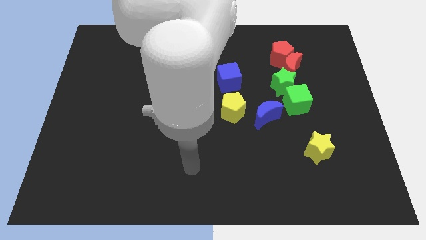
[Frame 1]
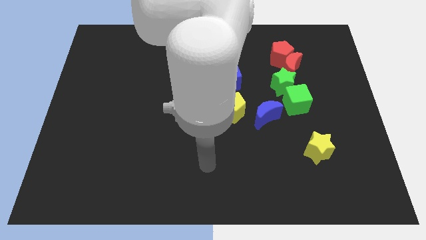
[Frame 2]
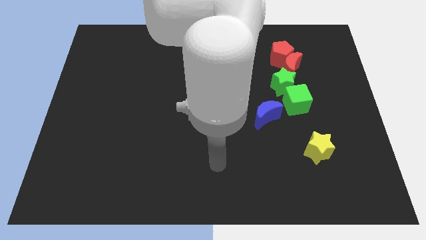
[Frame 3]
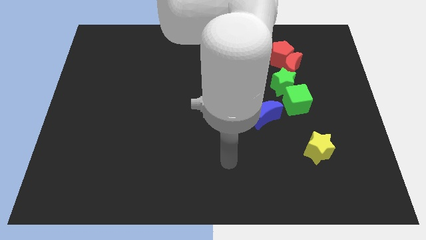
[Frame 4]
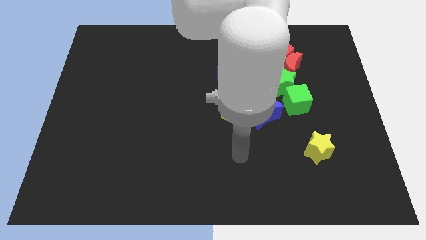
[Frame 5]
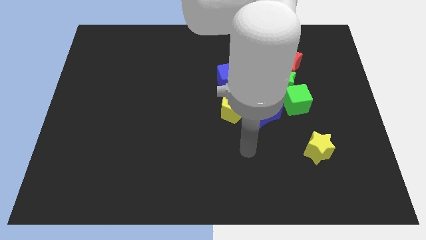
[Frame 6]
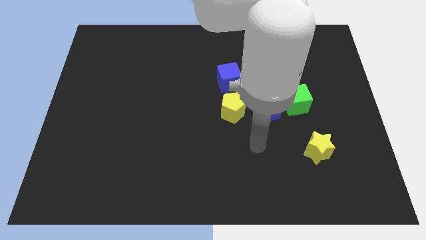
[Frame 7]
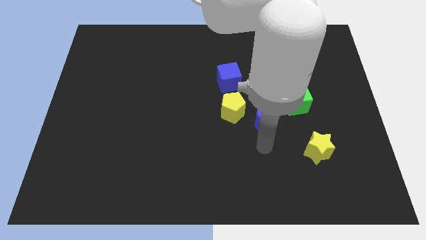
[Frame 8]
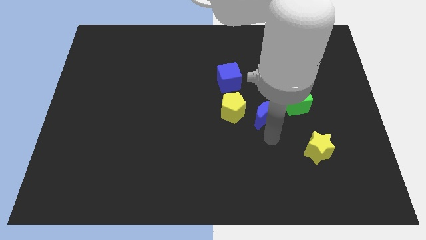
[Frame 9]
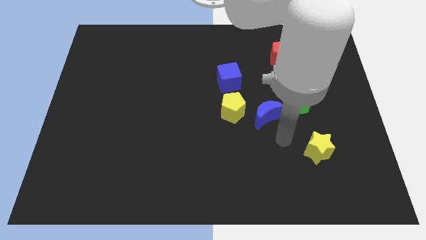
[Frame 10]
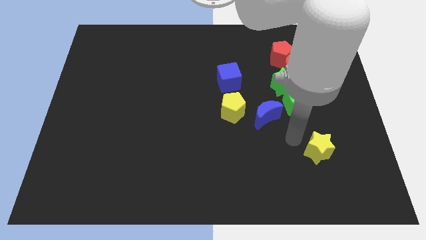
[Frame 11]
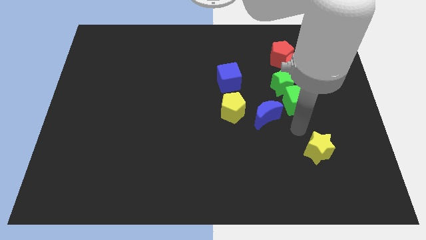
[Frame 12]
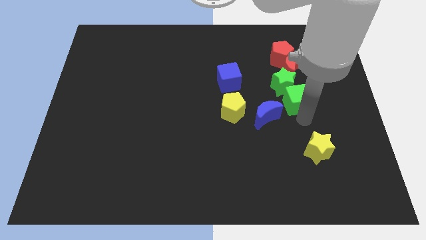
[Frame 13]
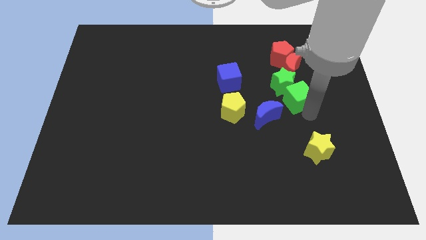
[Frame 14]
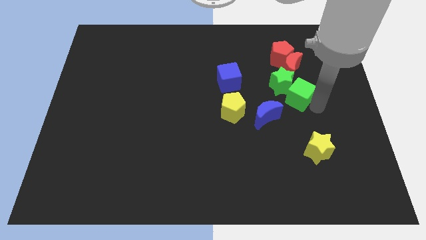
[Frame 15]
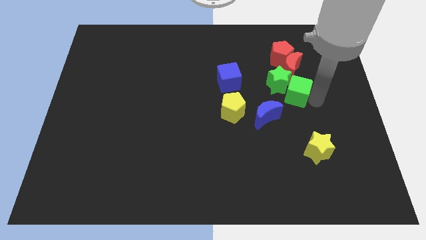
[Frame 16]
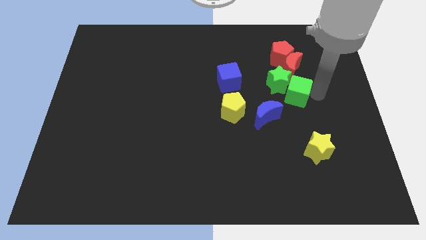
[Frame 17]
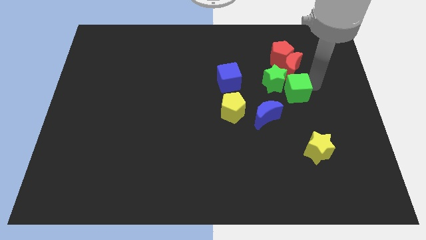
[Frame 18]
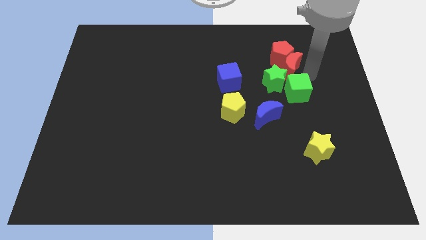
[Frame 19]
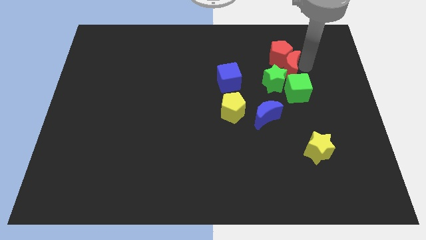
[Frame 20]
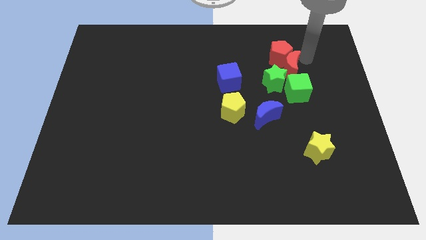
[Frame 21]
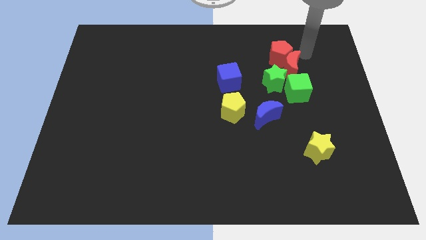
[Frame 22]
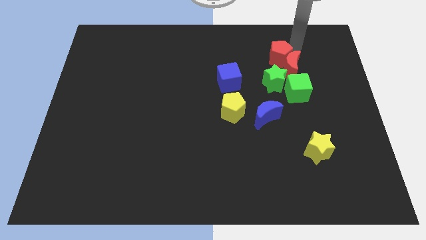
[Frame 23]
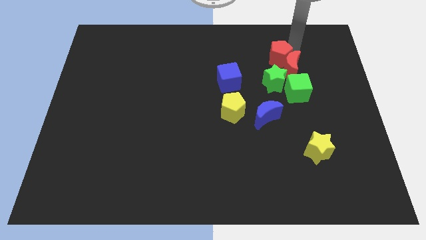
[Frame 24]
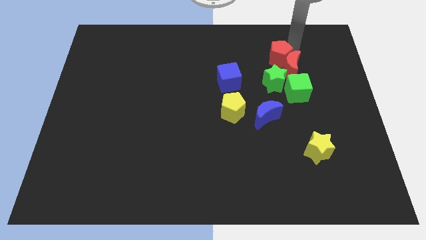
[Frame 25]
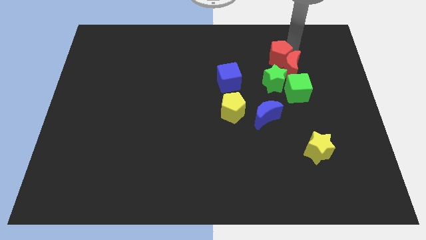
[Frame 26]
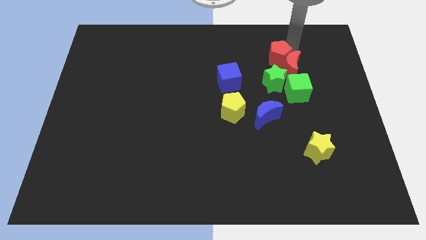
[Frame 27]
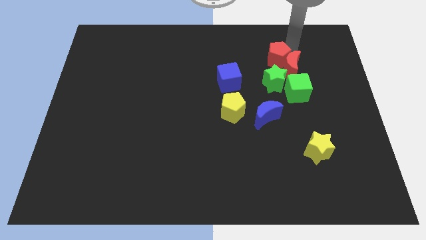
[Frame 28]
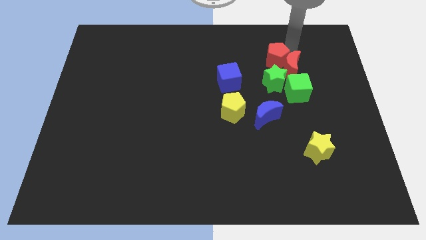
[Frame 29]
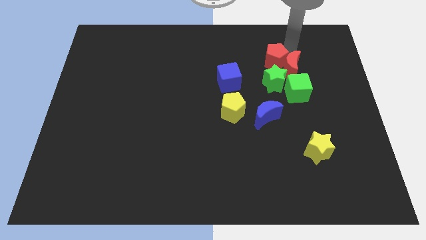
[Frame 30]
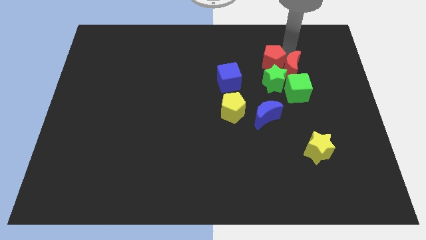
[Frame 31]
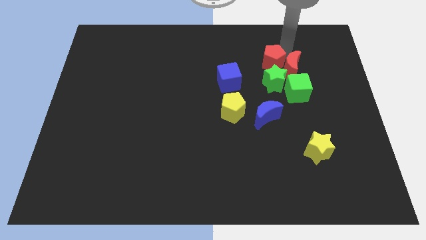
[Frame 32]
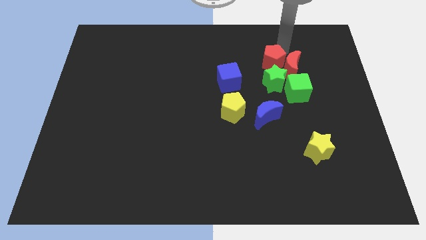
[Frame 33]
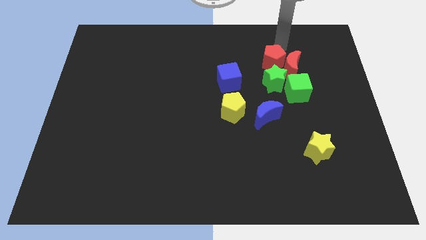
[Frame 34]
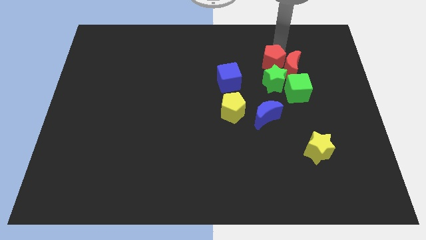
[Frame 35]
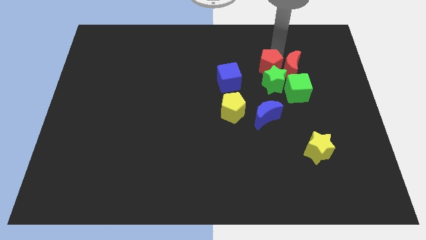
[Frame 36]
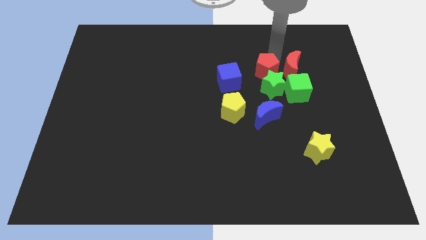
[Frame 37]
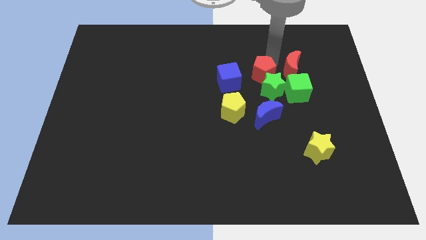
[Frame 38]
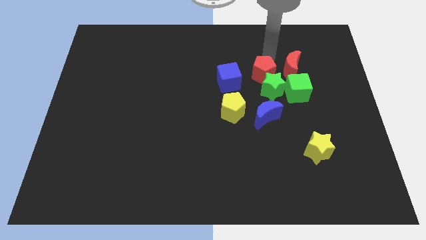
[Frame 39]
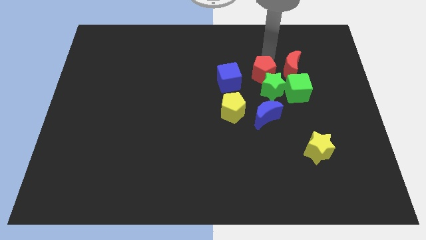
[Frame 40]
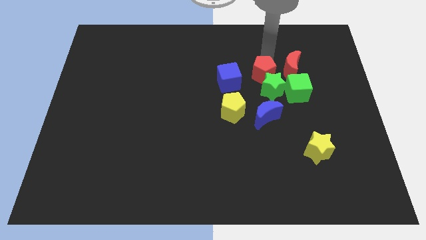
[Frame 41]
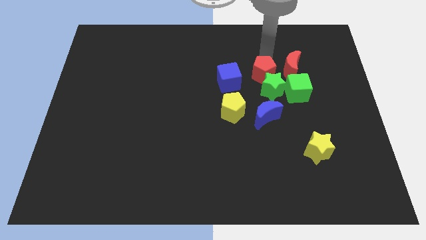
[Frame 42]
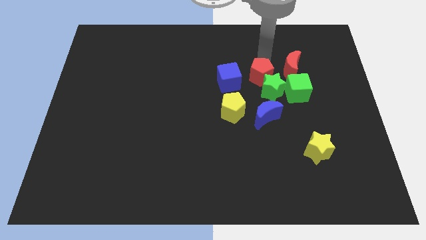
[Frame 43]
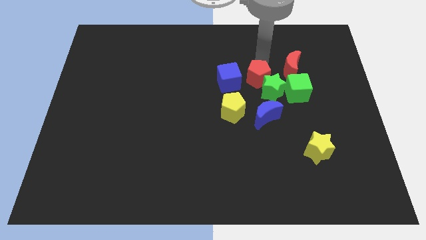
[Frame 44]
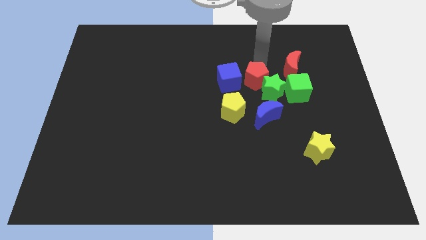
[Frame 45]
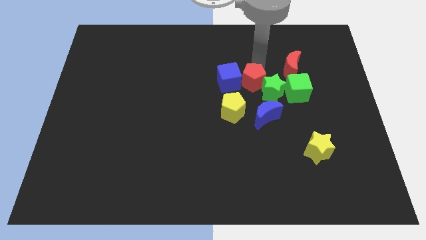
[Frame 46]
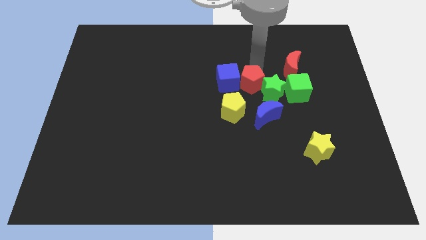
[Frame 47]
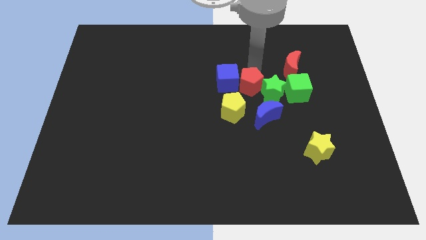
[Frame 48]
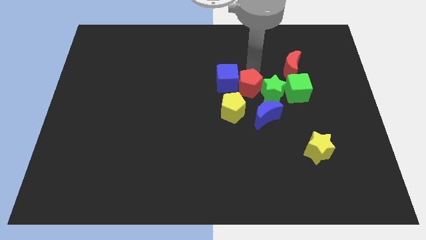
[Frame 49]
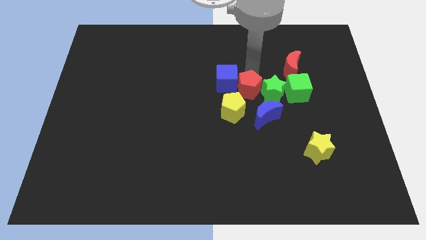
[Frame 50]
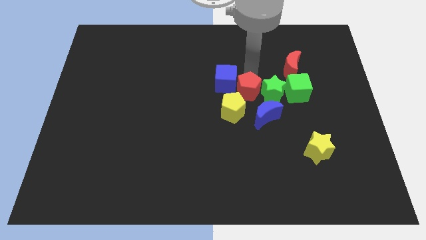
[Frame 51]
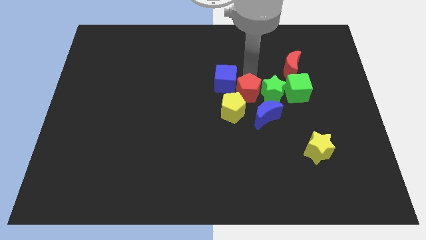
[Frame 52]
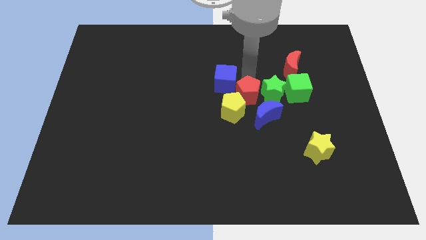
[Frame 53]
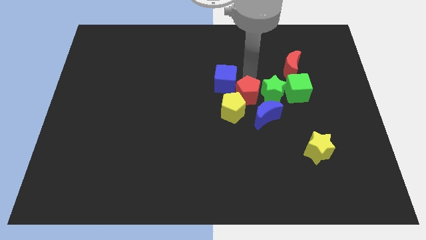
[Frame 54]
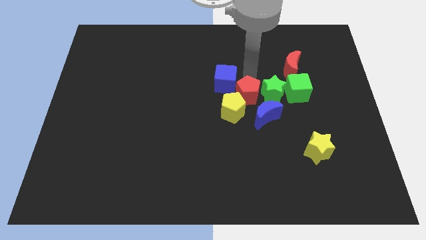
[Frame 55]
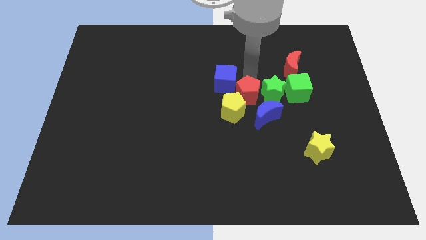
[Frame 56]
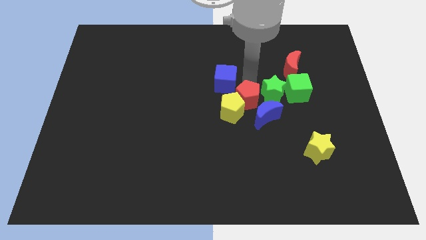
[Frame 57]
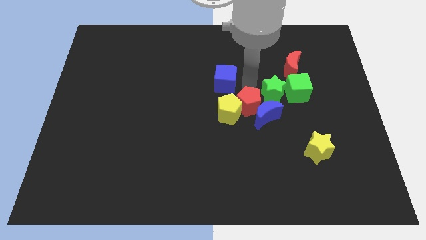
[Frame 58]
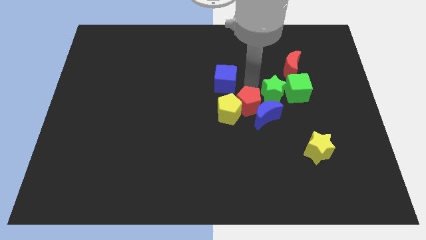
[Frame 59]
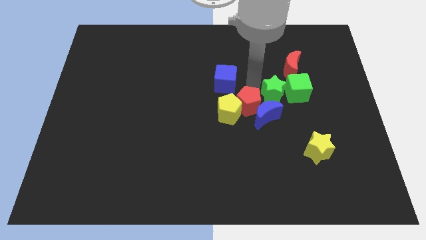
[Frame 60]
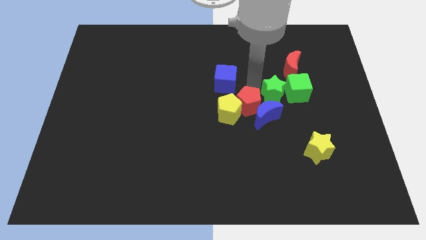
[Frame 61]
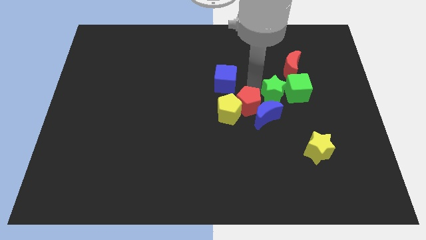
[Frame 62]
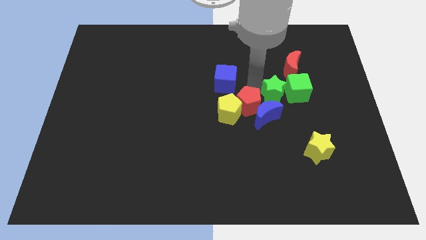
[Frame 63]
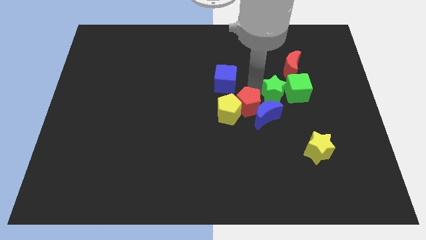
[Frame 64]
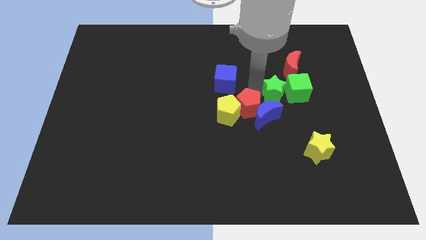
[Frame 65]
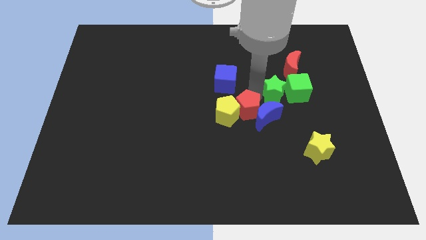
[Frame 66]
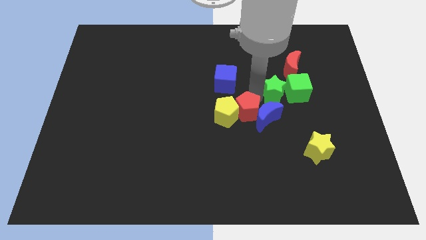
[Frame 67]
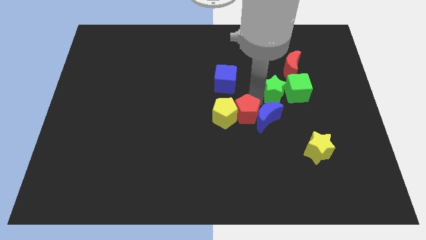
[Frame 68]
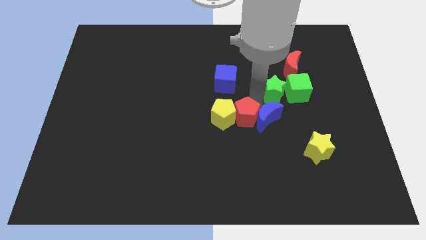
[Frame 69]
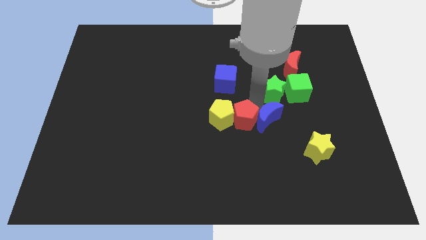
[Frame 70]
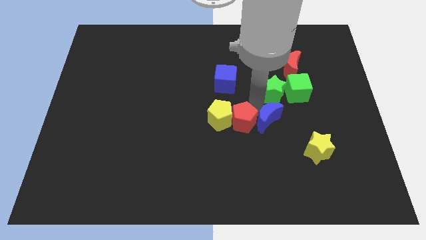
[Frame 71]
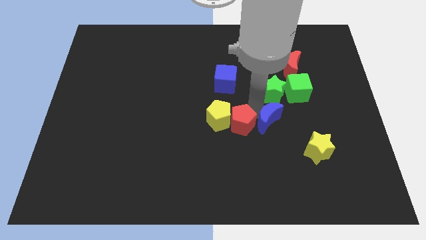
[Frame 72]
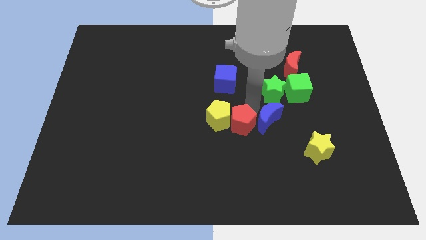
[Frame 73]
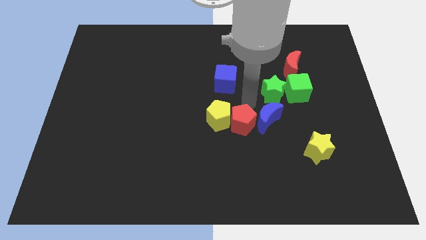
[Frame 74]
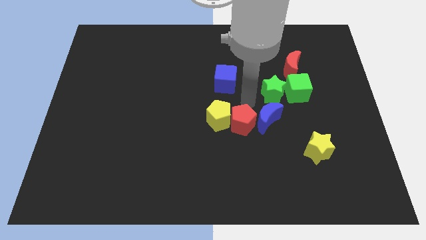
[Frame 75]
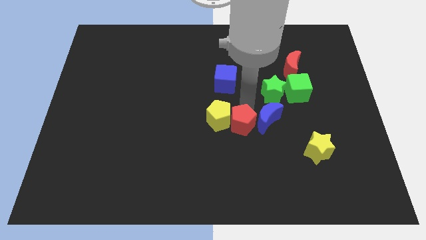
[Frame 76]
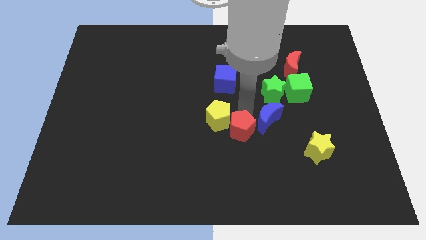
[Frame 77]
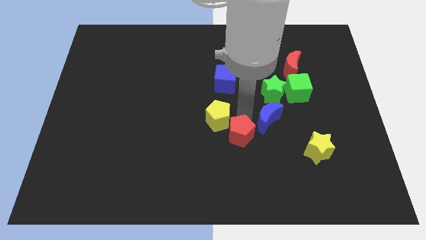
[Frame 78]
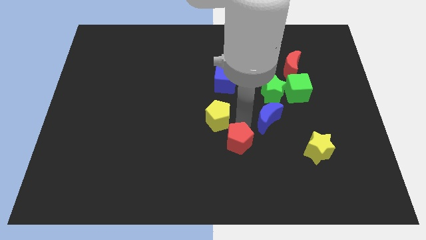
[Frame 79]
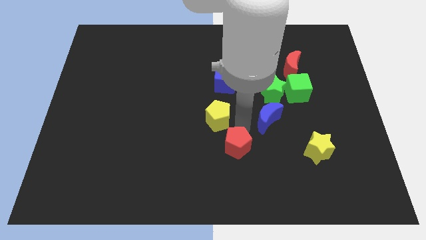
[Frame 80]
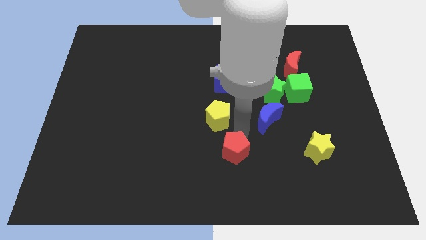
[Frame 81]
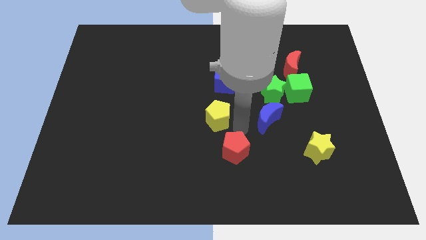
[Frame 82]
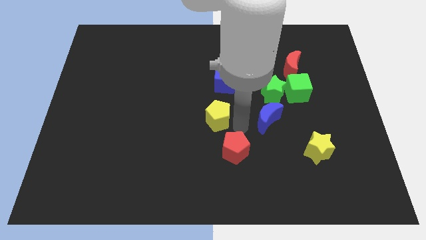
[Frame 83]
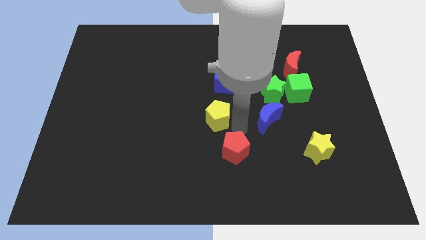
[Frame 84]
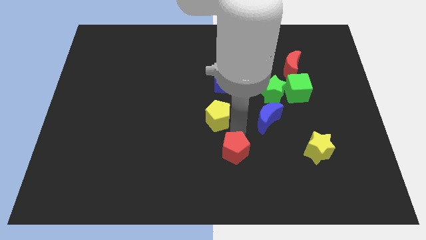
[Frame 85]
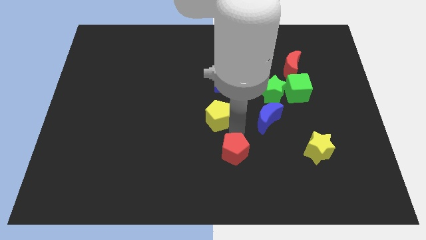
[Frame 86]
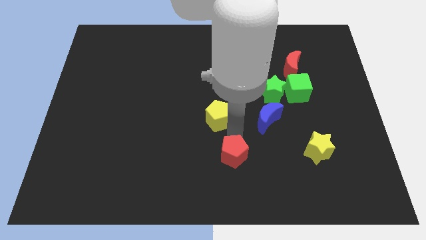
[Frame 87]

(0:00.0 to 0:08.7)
move the red pentagon to the bottom
